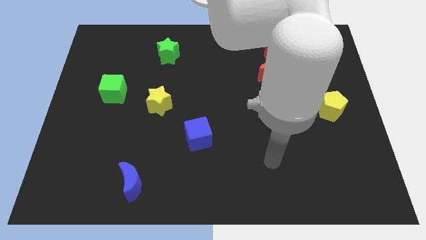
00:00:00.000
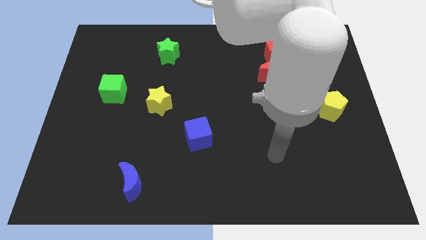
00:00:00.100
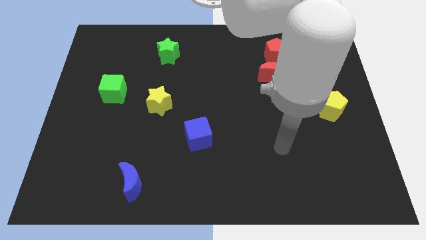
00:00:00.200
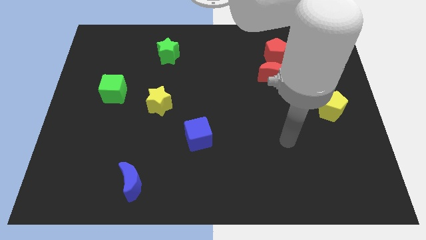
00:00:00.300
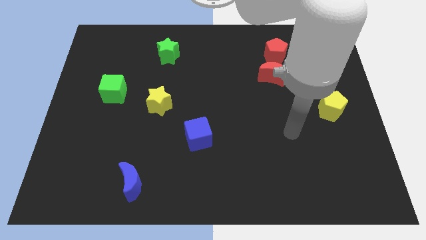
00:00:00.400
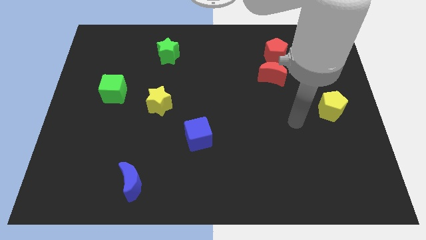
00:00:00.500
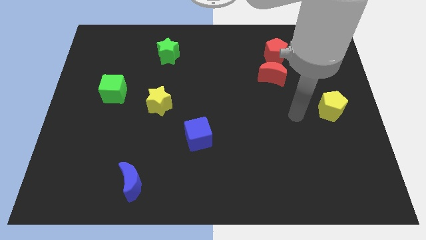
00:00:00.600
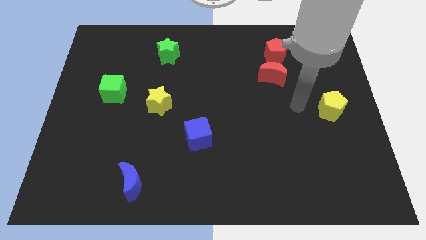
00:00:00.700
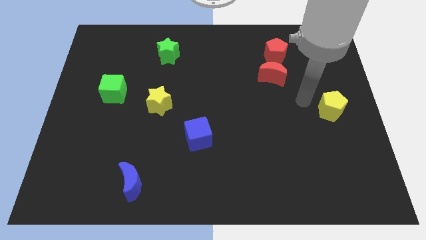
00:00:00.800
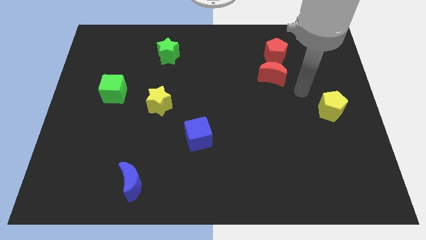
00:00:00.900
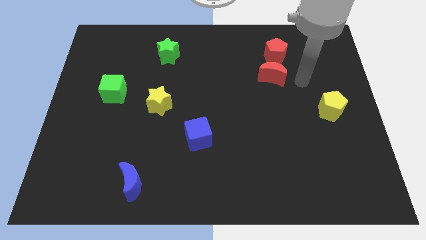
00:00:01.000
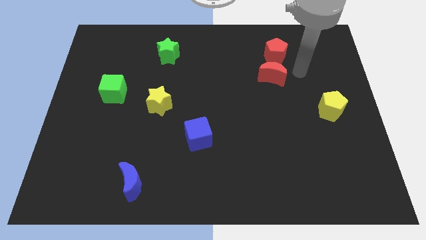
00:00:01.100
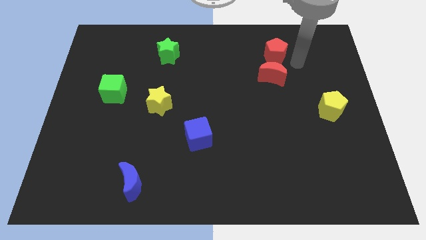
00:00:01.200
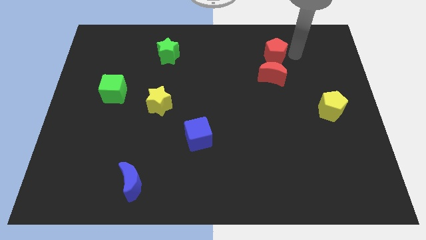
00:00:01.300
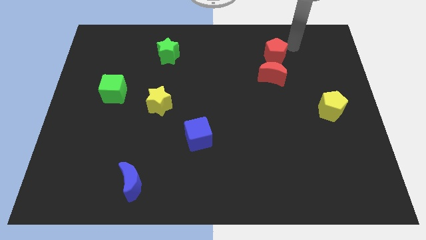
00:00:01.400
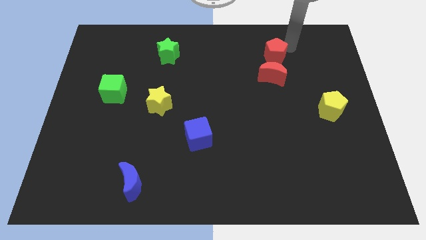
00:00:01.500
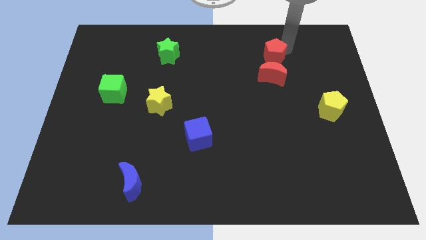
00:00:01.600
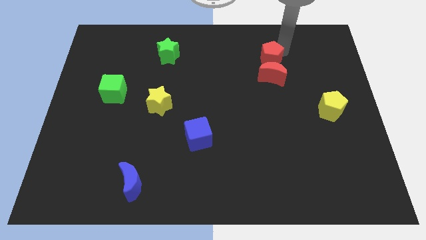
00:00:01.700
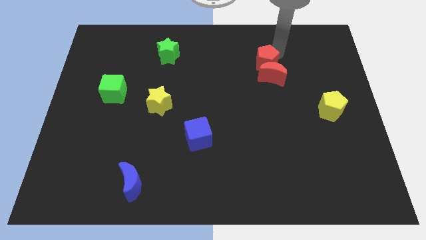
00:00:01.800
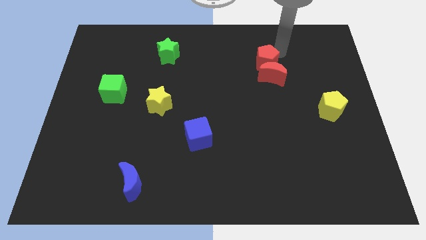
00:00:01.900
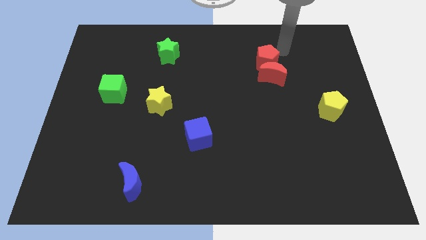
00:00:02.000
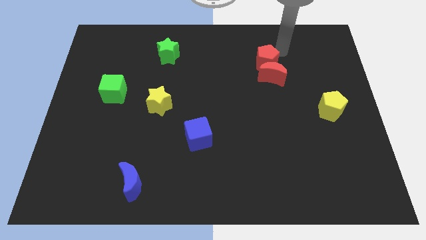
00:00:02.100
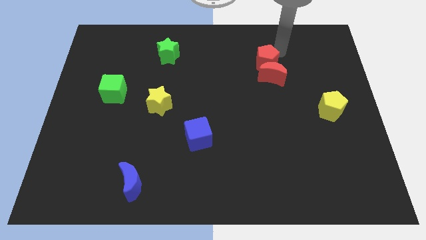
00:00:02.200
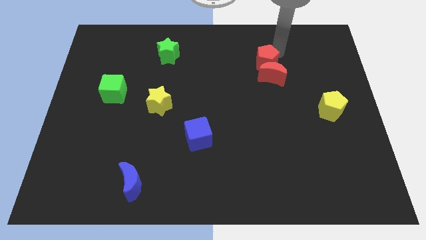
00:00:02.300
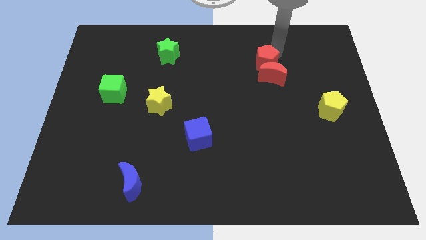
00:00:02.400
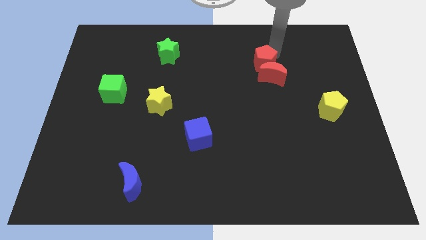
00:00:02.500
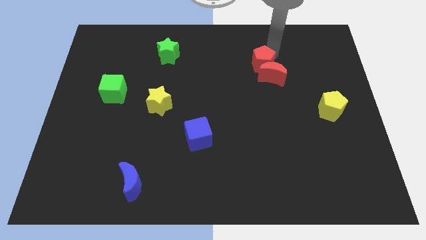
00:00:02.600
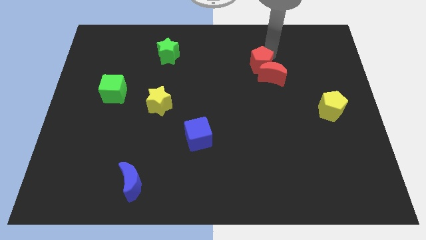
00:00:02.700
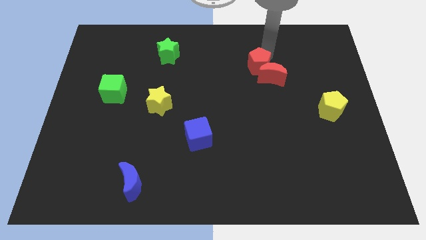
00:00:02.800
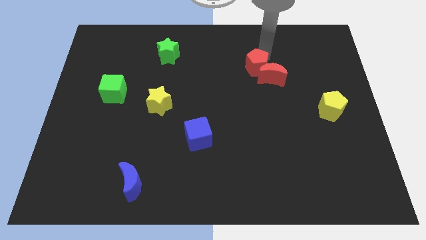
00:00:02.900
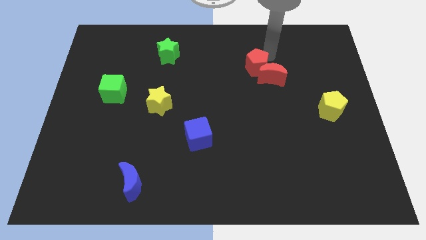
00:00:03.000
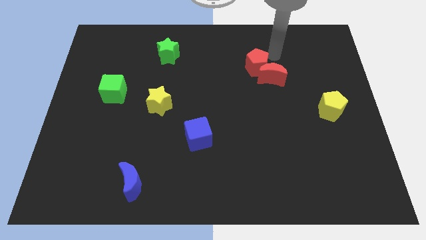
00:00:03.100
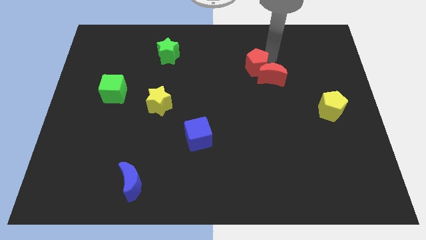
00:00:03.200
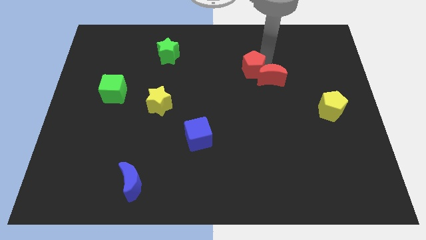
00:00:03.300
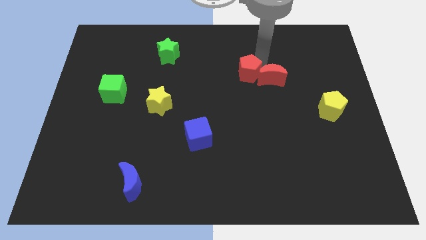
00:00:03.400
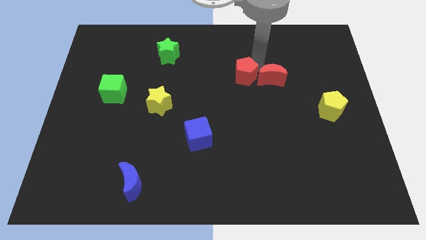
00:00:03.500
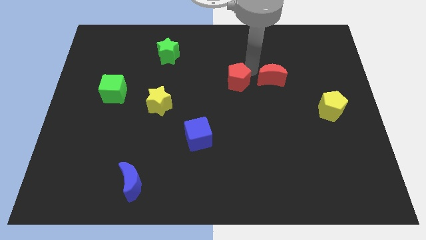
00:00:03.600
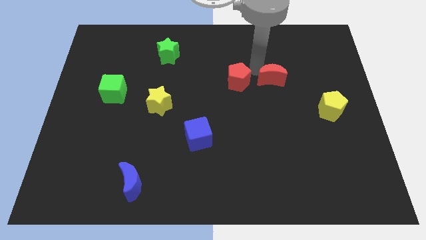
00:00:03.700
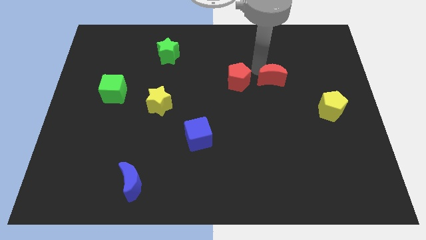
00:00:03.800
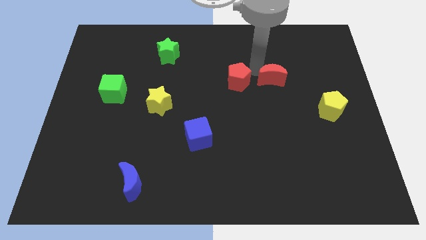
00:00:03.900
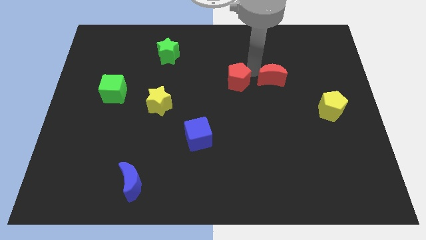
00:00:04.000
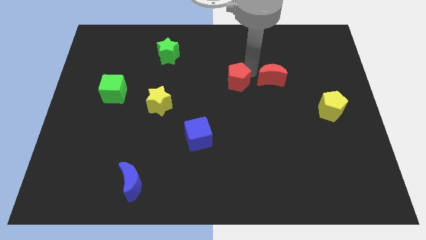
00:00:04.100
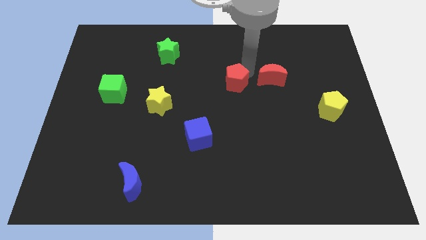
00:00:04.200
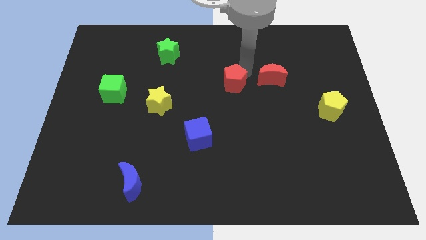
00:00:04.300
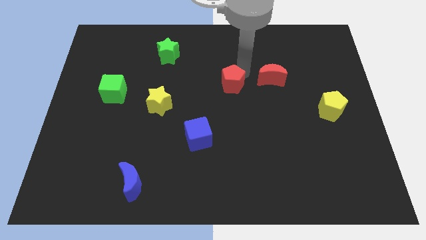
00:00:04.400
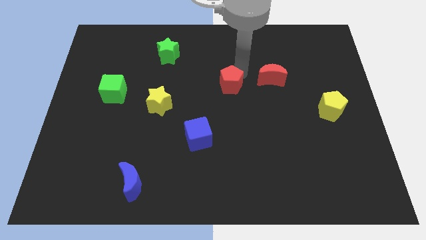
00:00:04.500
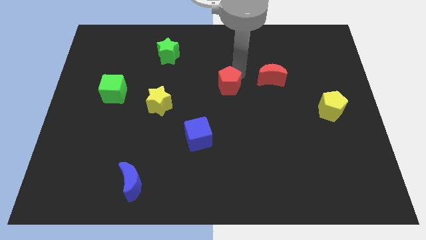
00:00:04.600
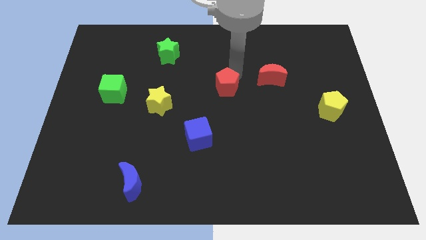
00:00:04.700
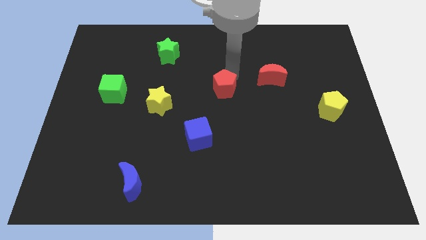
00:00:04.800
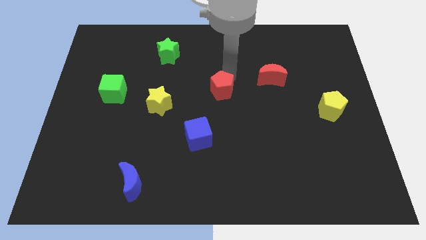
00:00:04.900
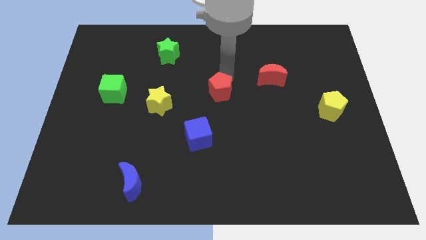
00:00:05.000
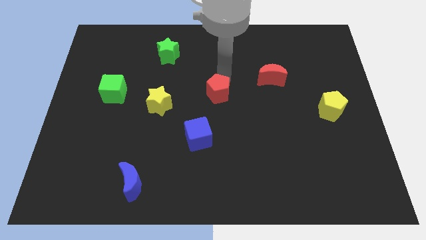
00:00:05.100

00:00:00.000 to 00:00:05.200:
slide the red pentagon right of the yellow star
